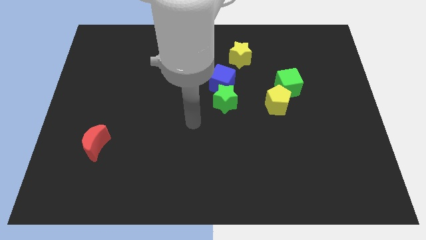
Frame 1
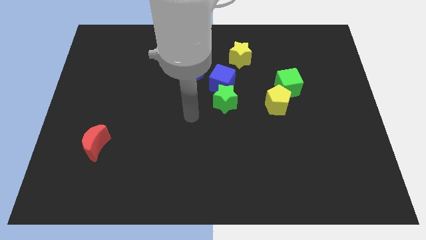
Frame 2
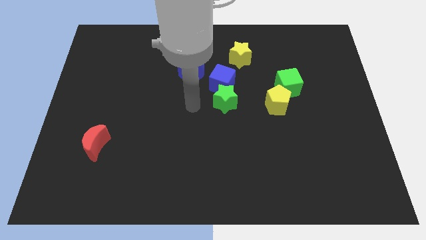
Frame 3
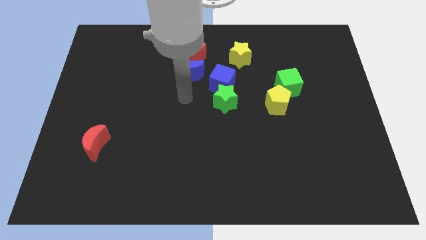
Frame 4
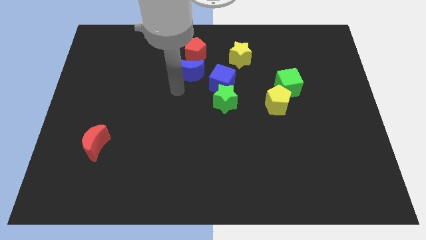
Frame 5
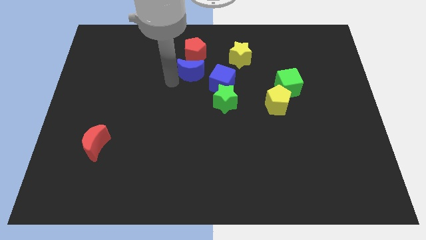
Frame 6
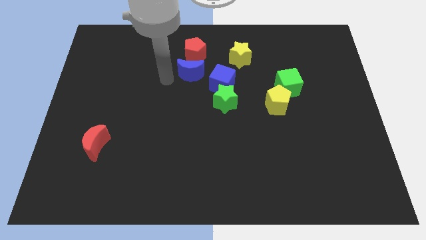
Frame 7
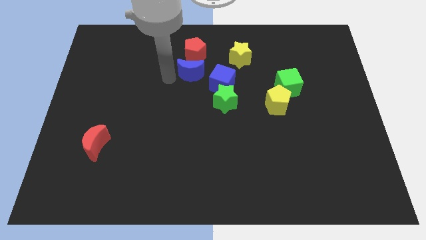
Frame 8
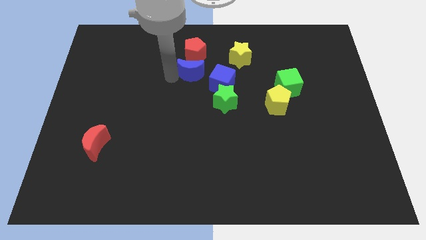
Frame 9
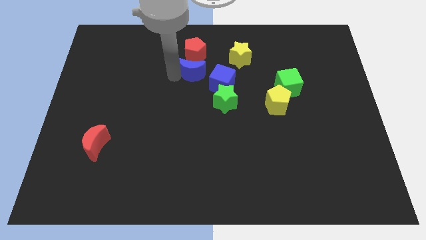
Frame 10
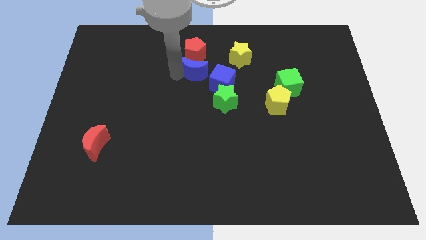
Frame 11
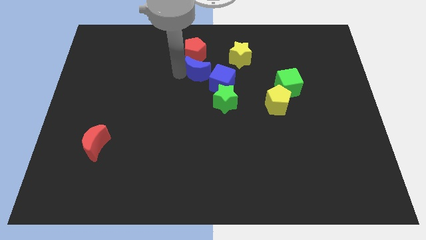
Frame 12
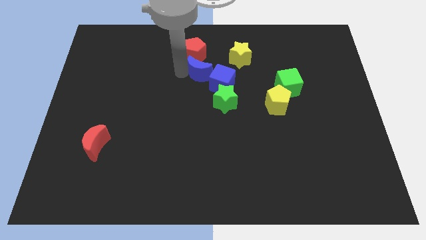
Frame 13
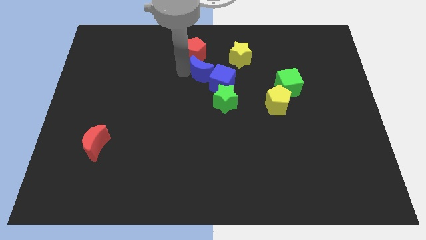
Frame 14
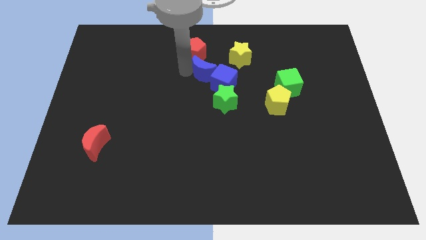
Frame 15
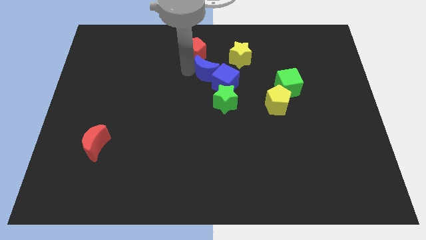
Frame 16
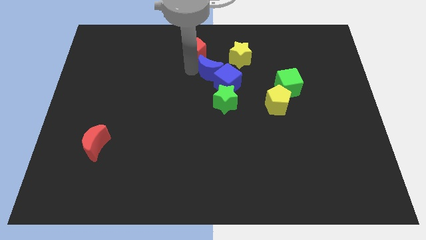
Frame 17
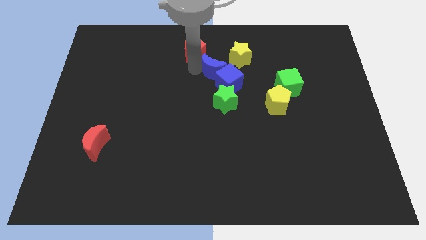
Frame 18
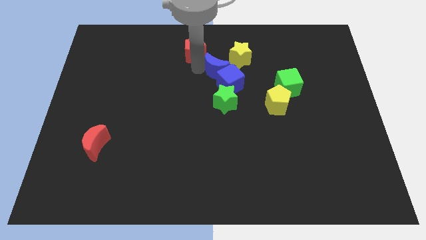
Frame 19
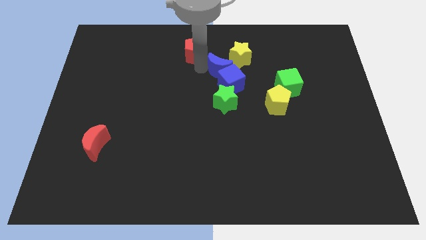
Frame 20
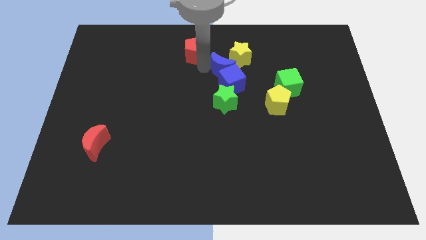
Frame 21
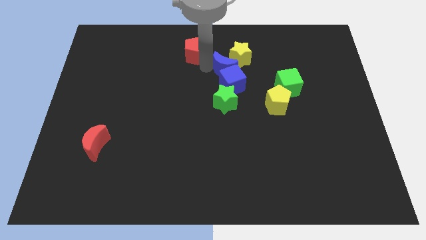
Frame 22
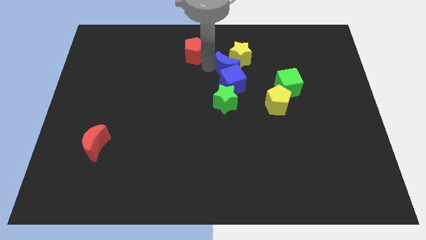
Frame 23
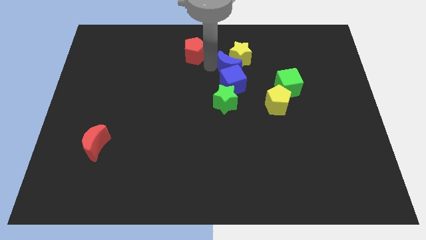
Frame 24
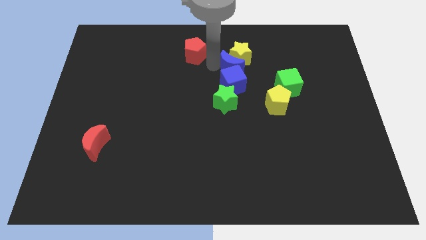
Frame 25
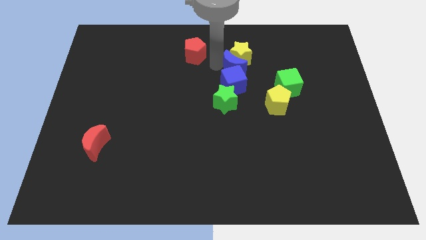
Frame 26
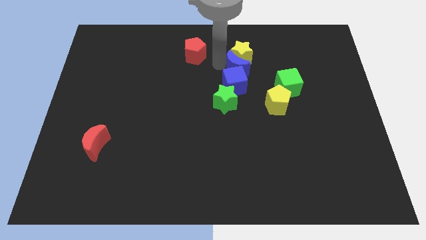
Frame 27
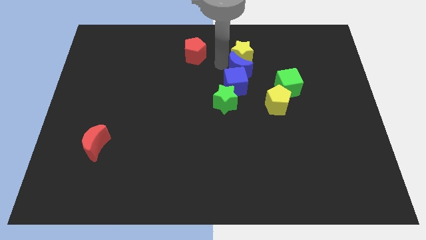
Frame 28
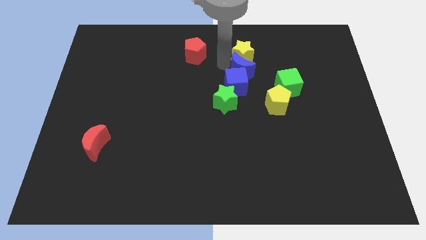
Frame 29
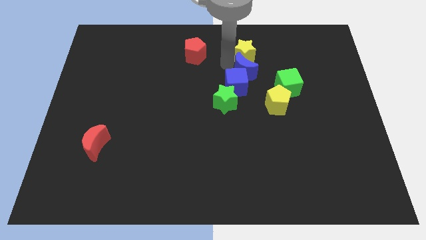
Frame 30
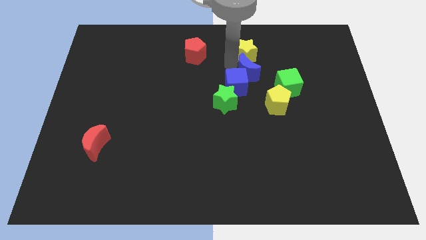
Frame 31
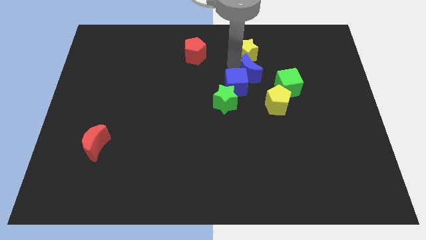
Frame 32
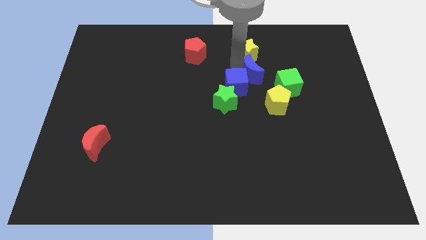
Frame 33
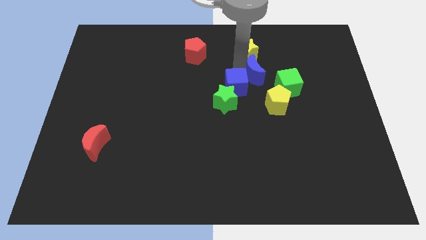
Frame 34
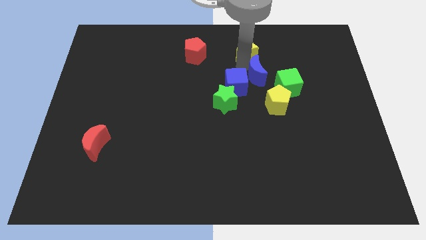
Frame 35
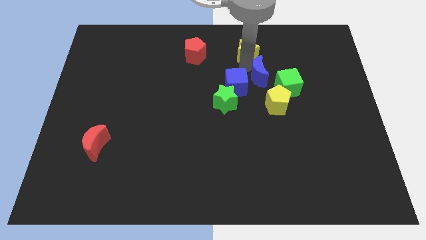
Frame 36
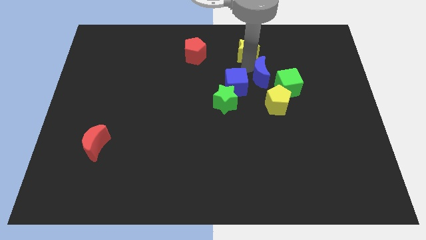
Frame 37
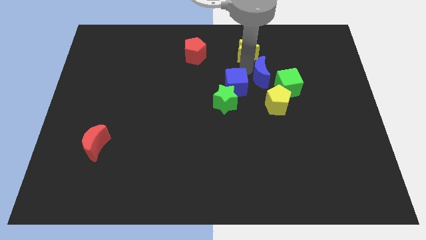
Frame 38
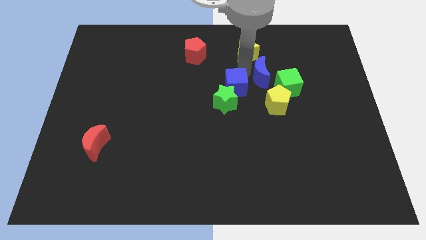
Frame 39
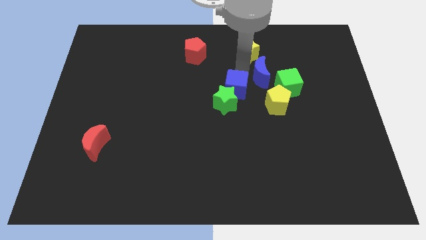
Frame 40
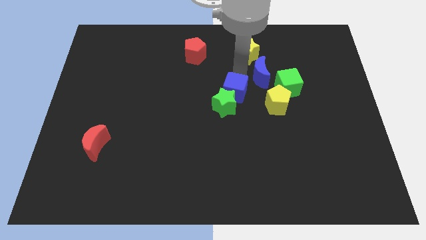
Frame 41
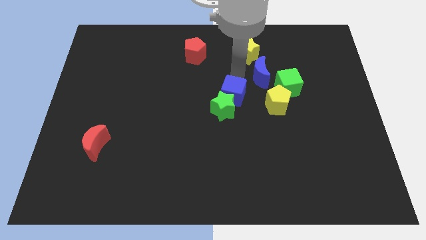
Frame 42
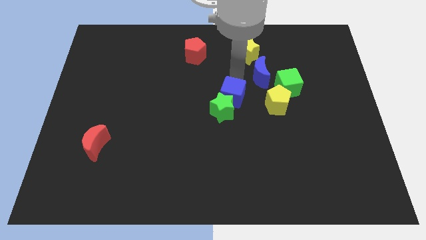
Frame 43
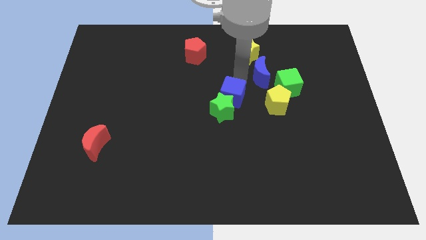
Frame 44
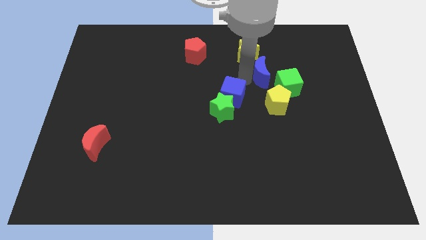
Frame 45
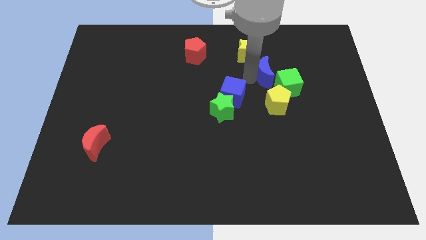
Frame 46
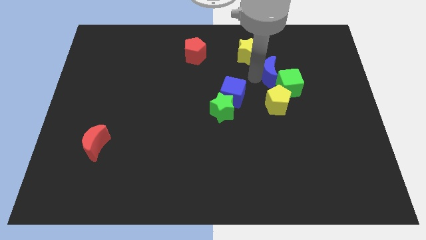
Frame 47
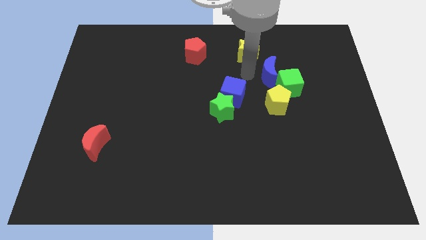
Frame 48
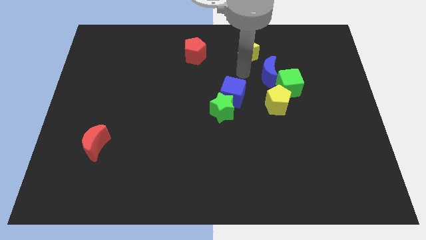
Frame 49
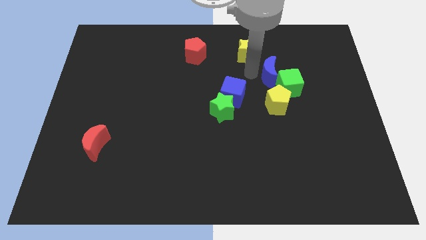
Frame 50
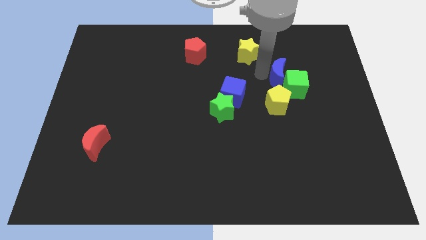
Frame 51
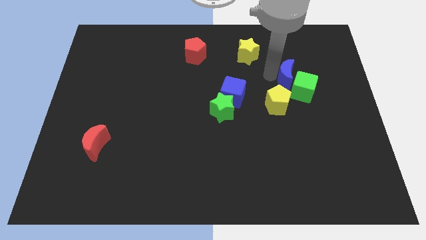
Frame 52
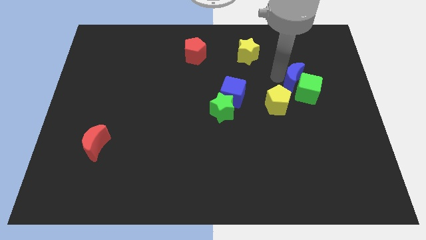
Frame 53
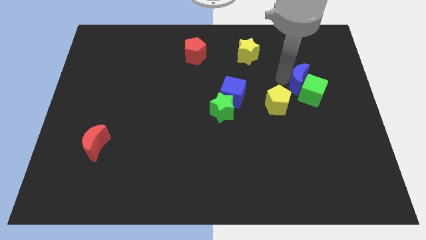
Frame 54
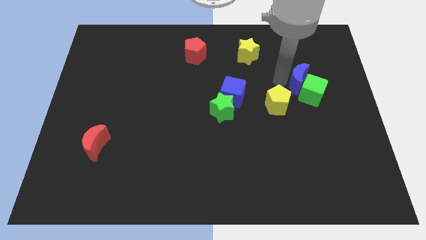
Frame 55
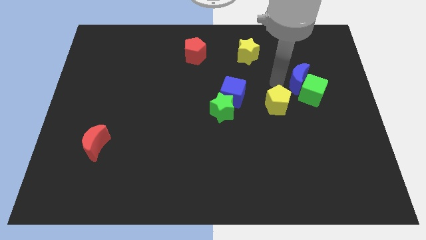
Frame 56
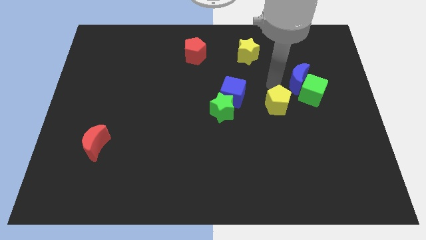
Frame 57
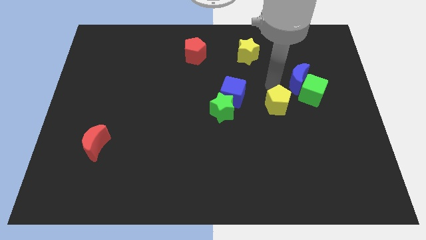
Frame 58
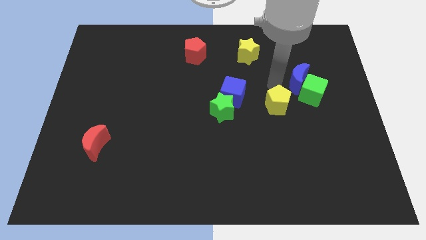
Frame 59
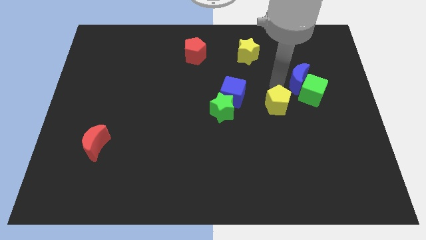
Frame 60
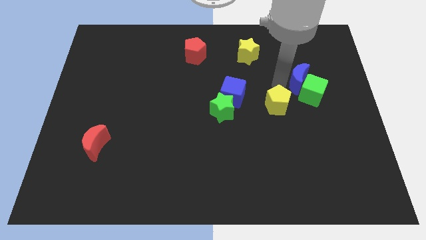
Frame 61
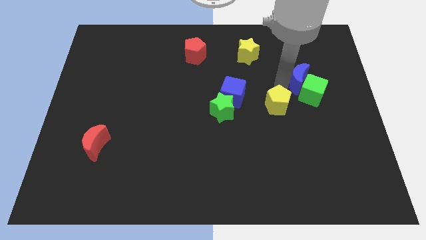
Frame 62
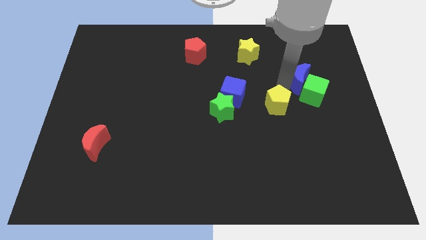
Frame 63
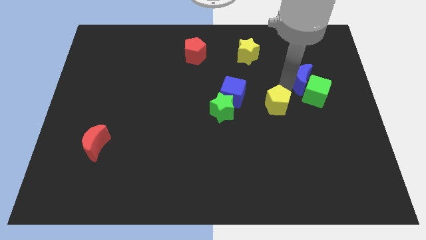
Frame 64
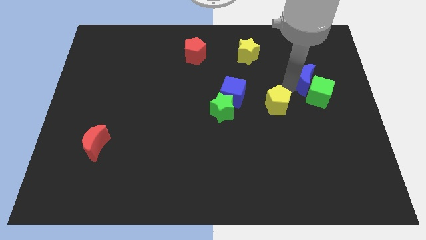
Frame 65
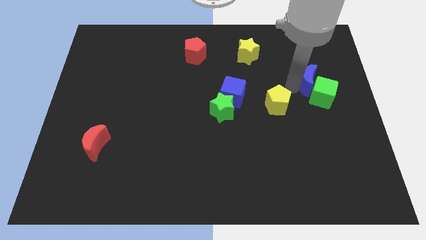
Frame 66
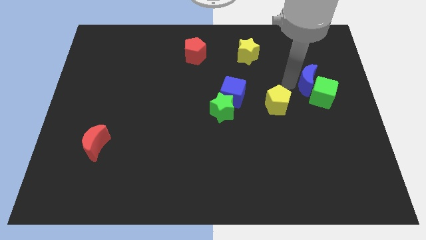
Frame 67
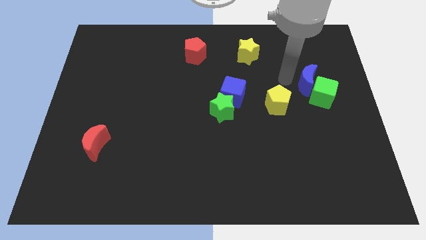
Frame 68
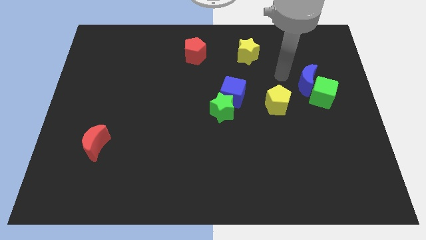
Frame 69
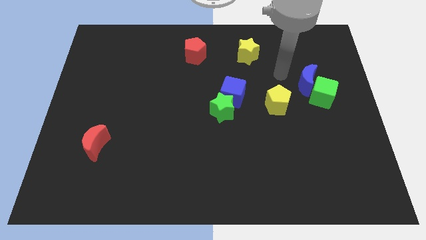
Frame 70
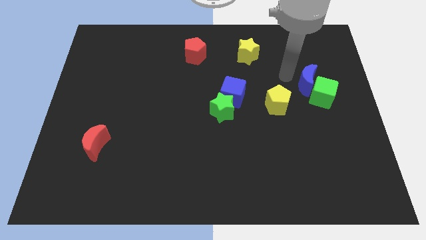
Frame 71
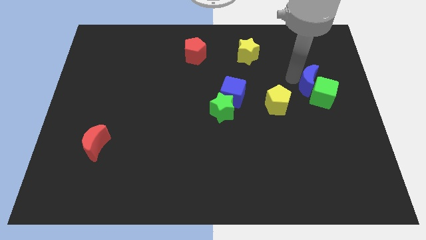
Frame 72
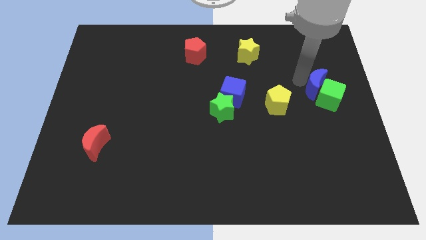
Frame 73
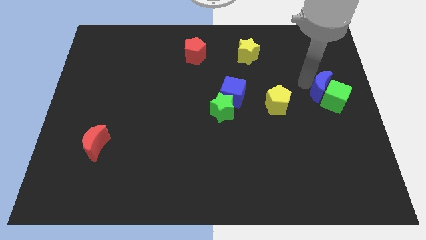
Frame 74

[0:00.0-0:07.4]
push the blue moon to the right side of the board

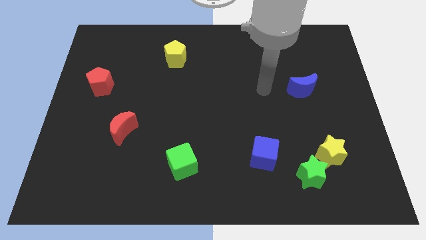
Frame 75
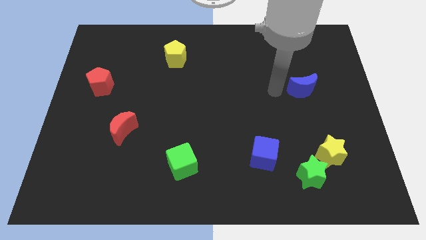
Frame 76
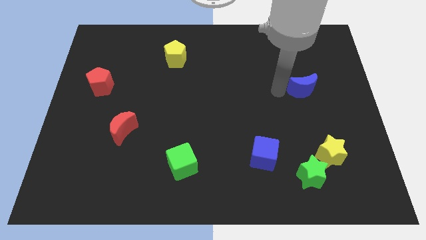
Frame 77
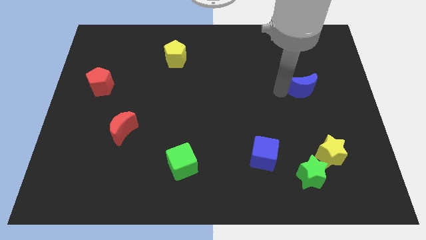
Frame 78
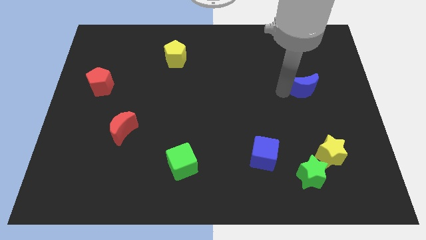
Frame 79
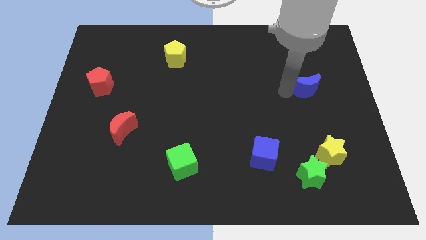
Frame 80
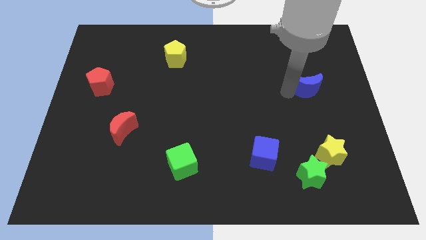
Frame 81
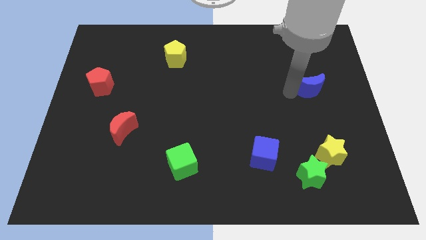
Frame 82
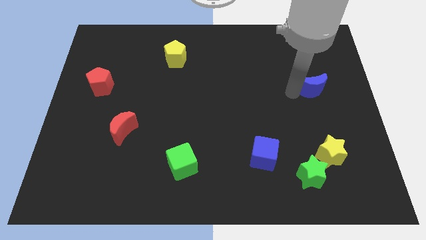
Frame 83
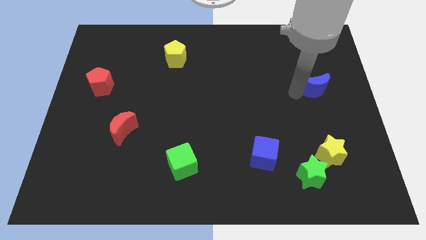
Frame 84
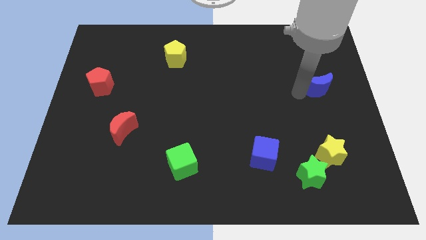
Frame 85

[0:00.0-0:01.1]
slide the blue moon to the right side of the board
